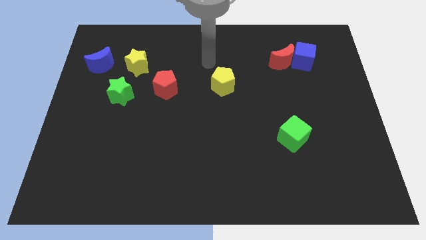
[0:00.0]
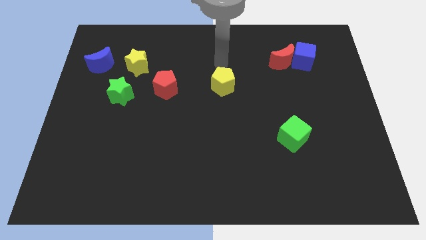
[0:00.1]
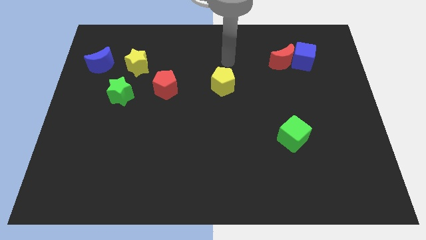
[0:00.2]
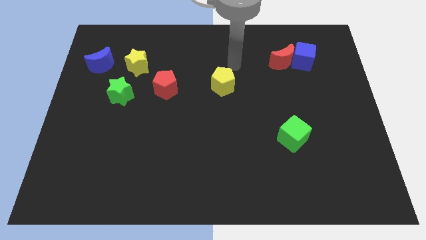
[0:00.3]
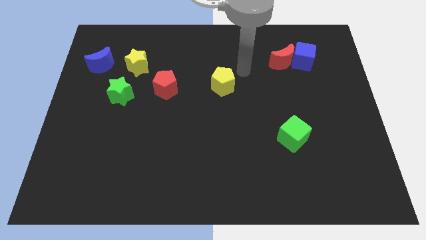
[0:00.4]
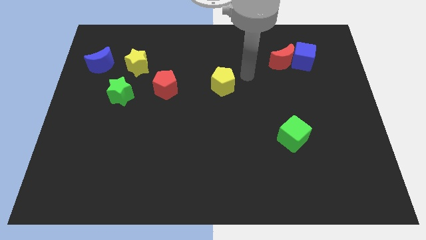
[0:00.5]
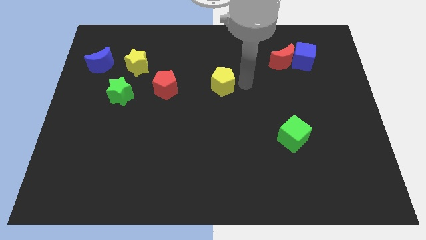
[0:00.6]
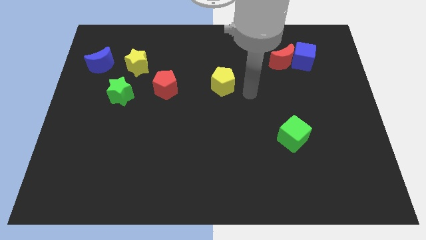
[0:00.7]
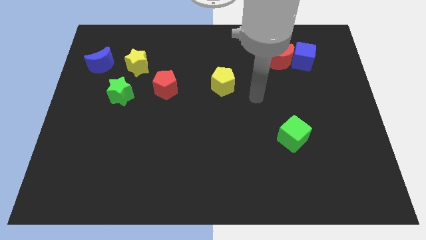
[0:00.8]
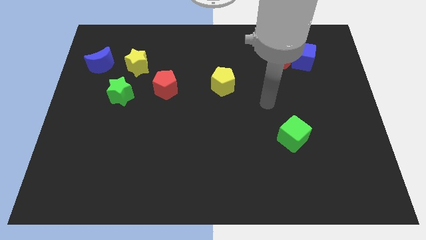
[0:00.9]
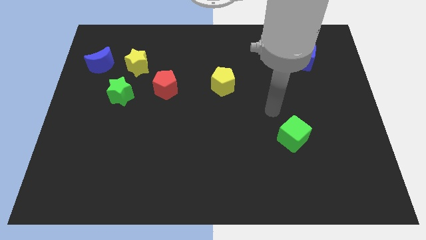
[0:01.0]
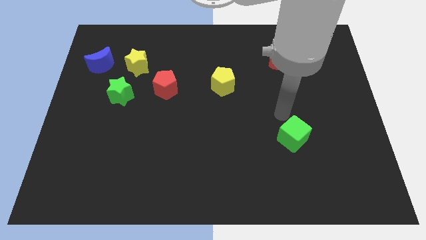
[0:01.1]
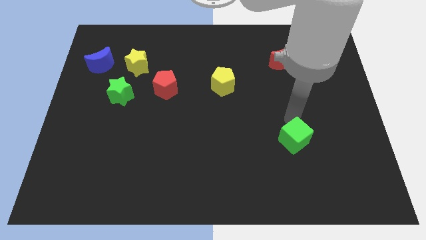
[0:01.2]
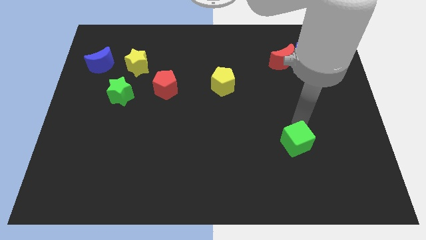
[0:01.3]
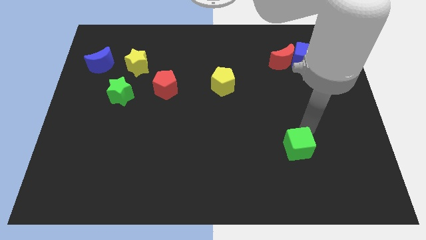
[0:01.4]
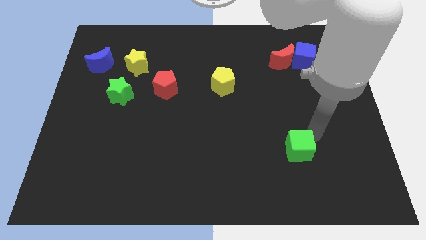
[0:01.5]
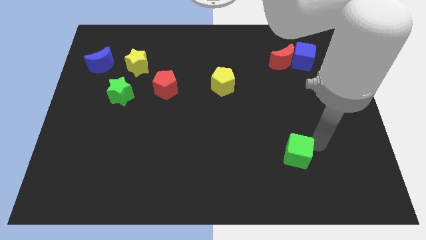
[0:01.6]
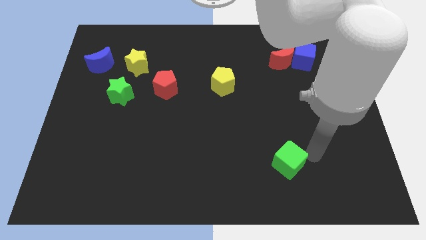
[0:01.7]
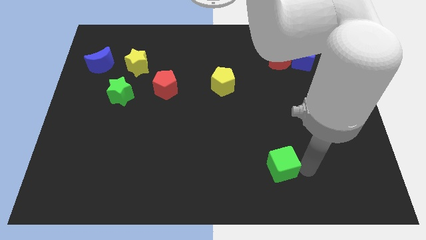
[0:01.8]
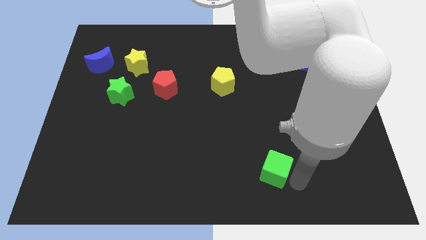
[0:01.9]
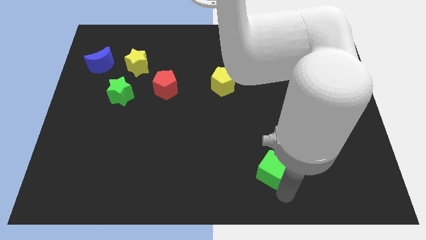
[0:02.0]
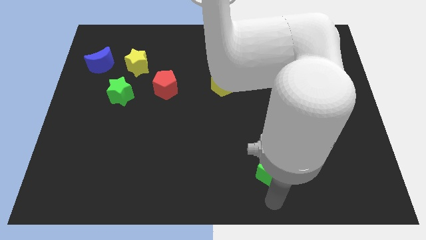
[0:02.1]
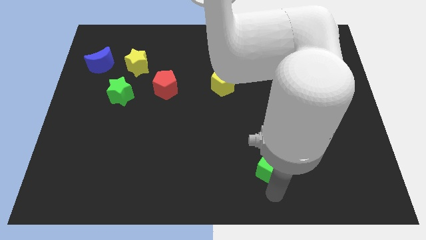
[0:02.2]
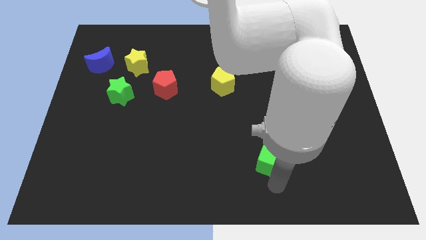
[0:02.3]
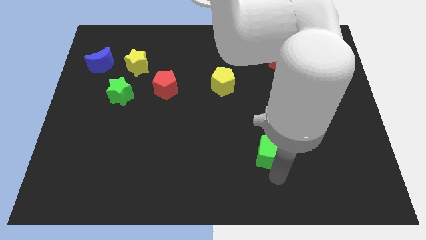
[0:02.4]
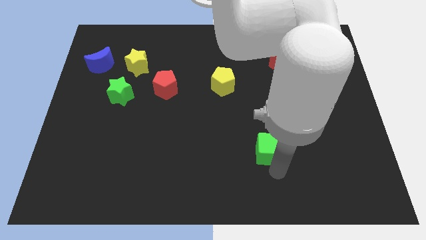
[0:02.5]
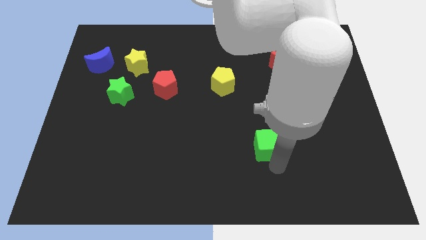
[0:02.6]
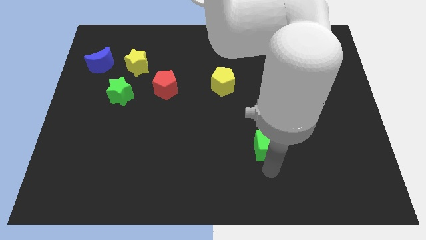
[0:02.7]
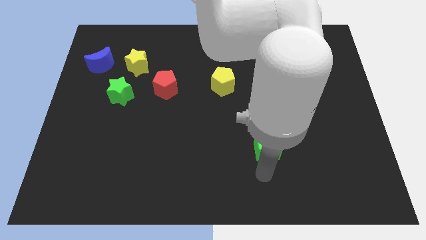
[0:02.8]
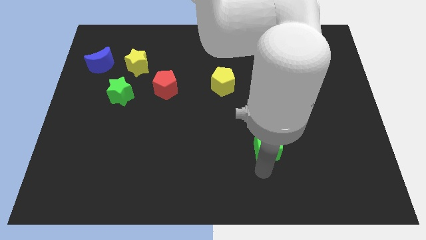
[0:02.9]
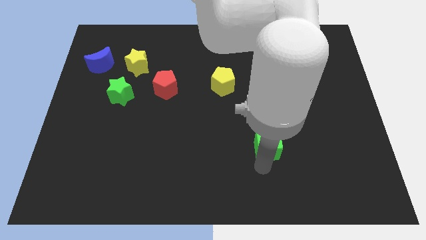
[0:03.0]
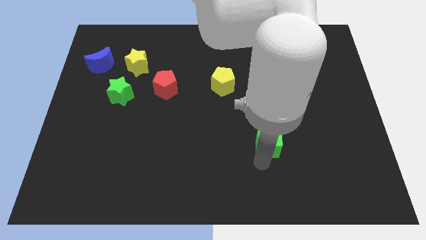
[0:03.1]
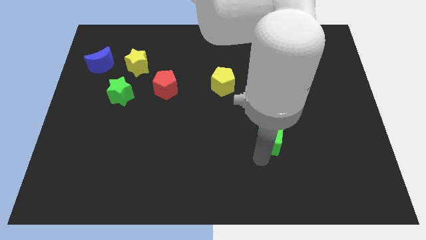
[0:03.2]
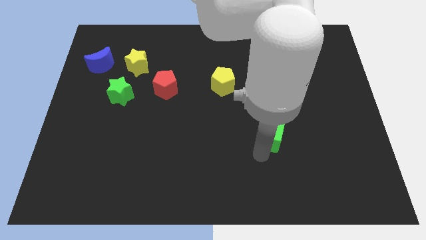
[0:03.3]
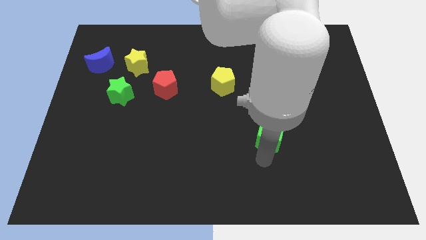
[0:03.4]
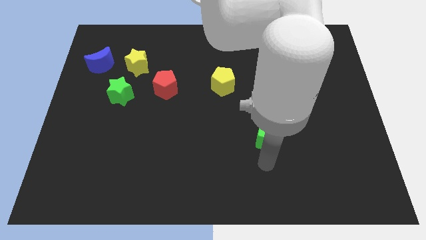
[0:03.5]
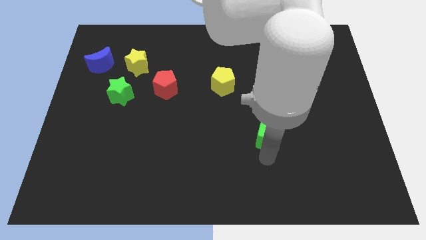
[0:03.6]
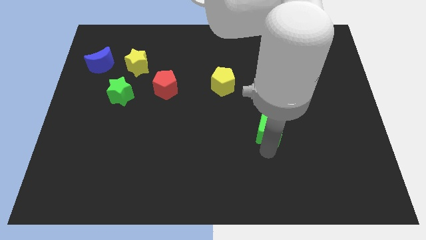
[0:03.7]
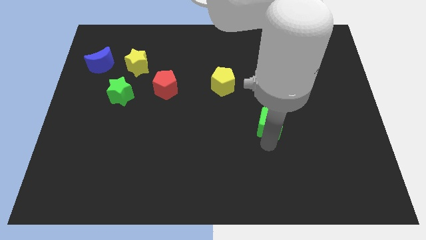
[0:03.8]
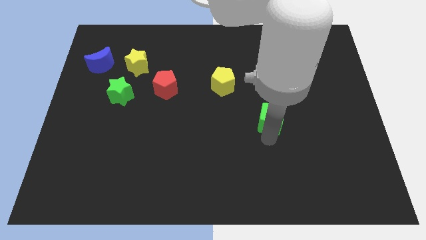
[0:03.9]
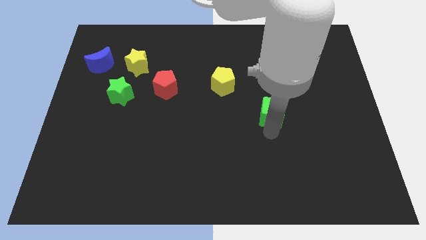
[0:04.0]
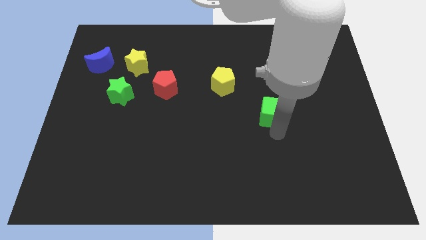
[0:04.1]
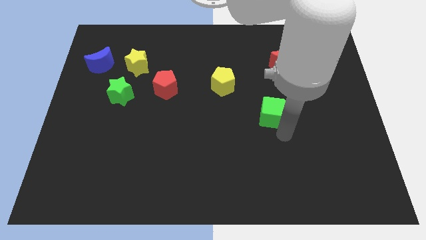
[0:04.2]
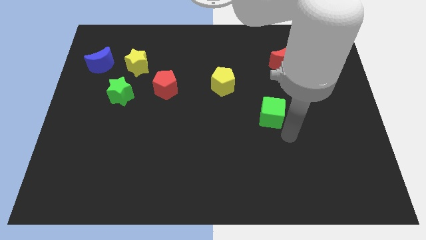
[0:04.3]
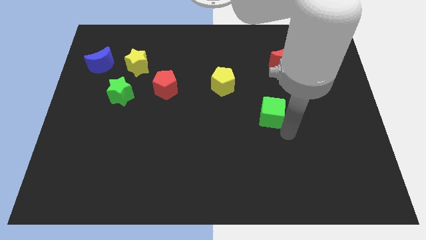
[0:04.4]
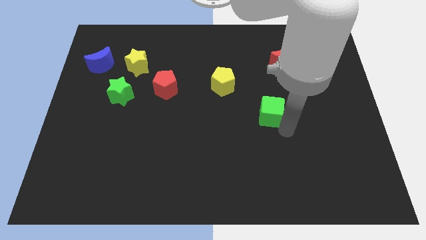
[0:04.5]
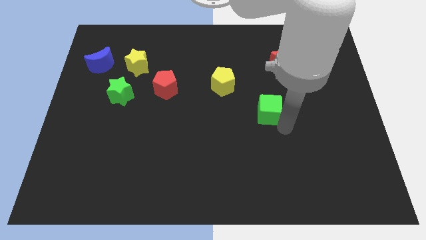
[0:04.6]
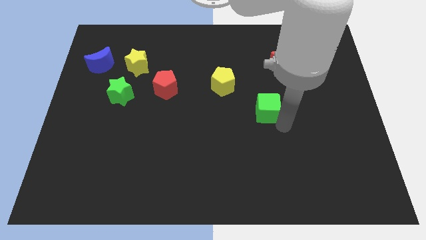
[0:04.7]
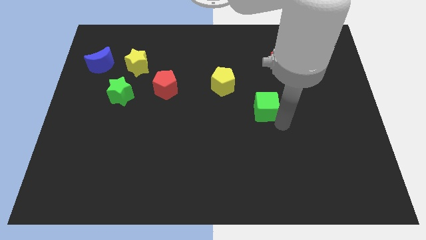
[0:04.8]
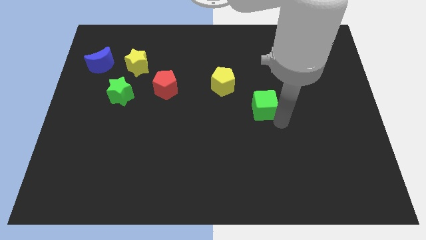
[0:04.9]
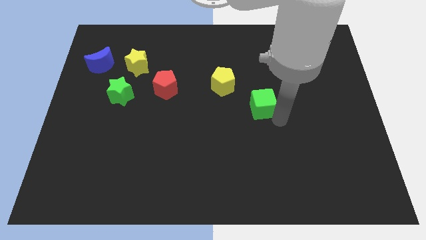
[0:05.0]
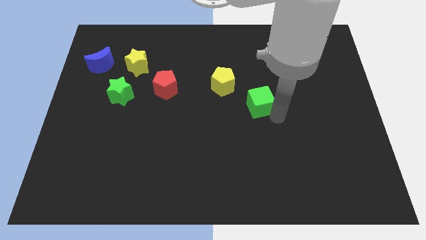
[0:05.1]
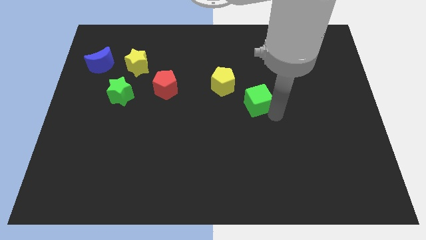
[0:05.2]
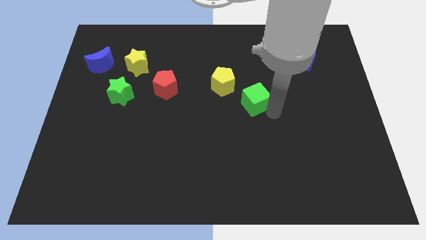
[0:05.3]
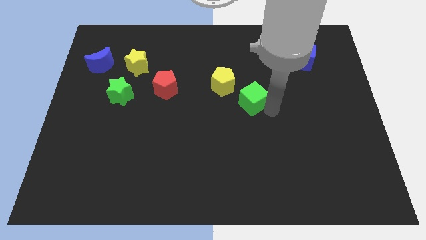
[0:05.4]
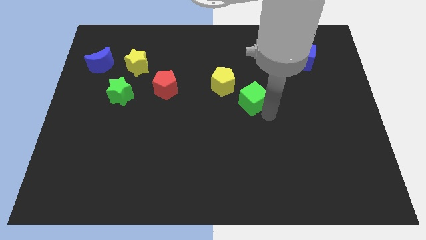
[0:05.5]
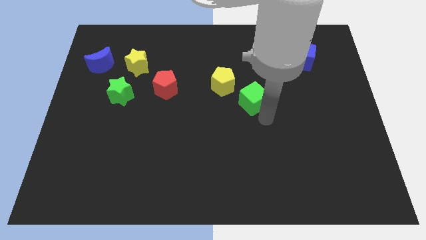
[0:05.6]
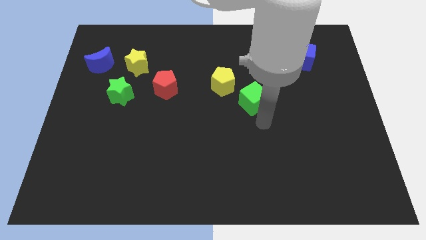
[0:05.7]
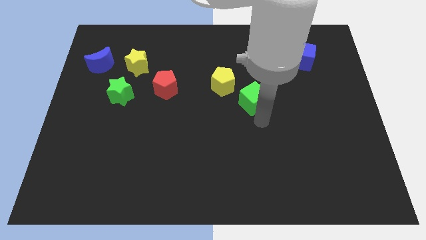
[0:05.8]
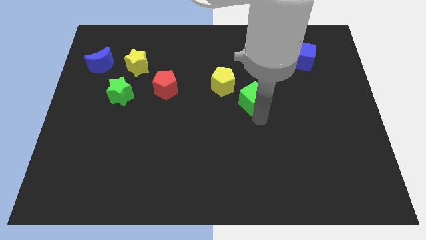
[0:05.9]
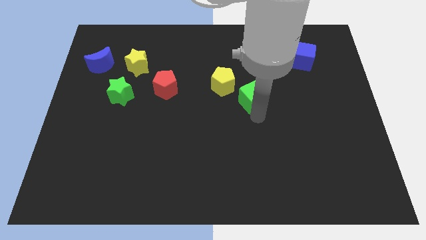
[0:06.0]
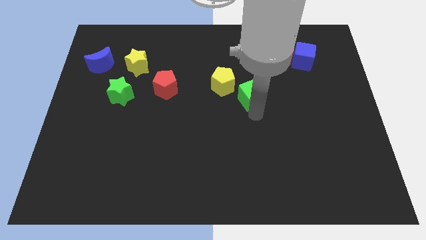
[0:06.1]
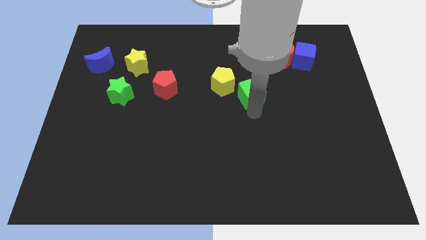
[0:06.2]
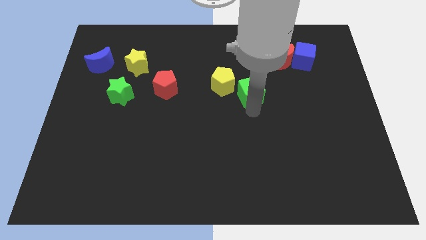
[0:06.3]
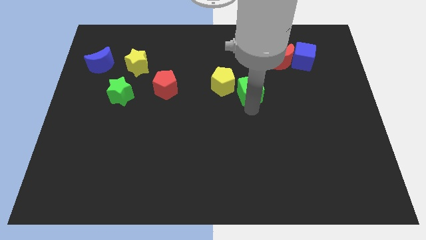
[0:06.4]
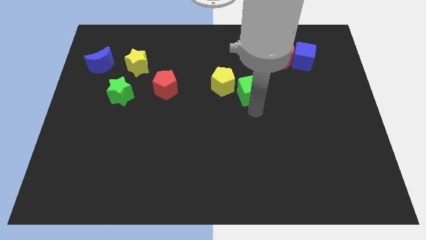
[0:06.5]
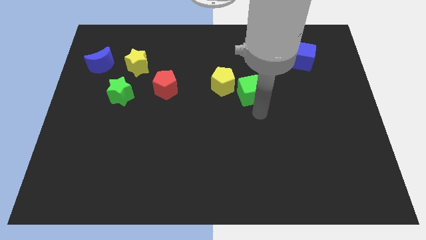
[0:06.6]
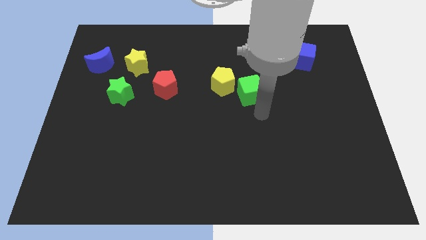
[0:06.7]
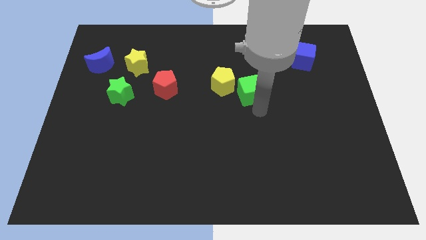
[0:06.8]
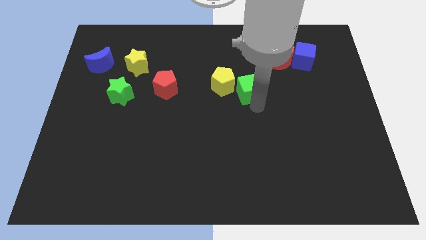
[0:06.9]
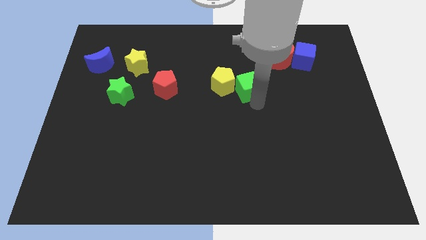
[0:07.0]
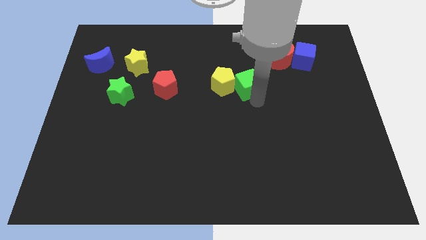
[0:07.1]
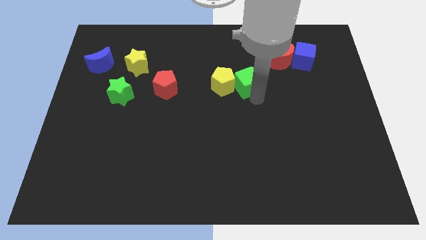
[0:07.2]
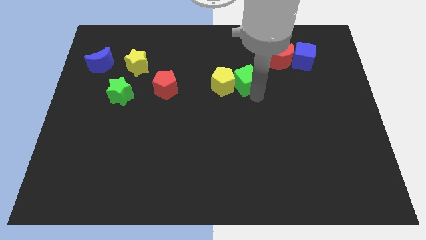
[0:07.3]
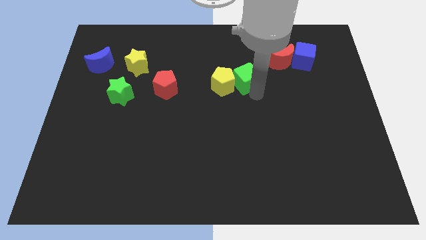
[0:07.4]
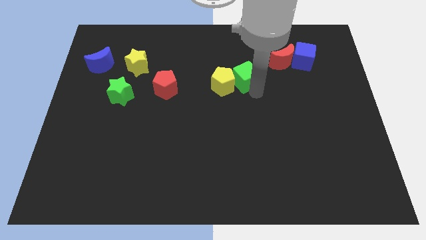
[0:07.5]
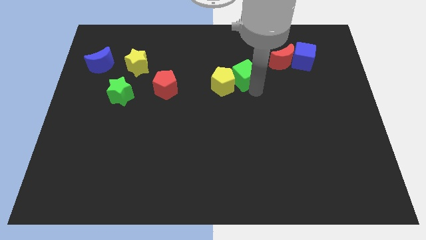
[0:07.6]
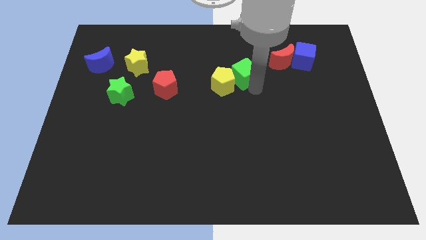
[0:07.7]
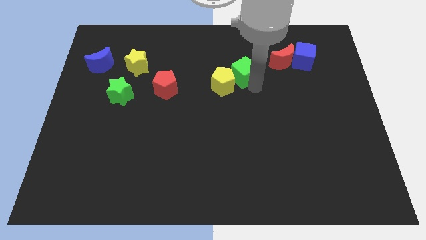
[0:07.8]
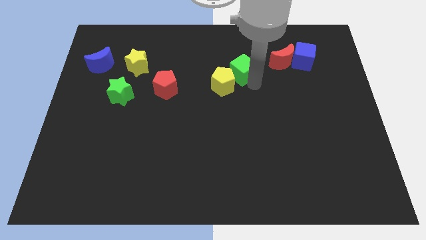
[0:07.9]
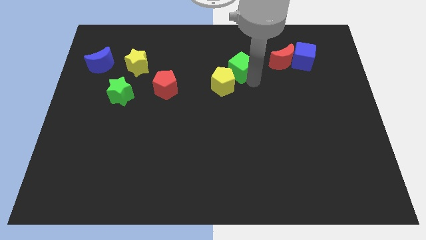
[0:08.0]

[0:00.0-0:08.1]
push the green cube upwards and to the left diagonally
